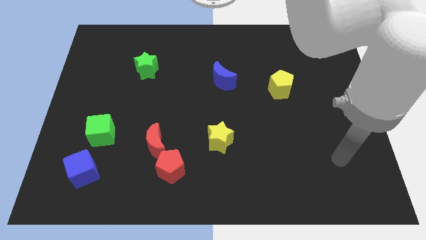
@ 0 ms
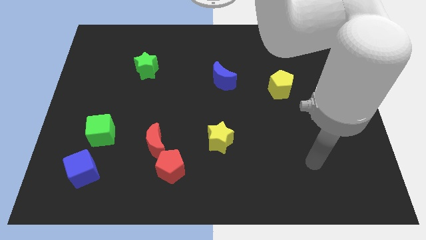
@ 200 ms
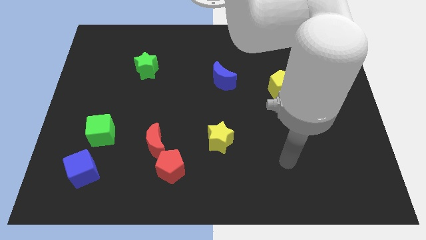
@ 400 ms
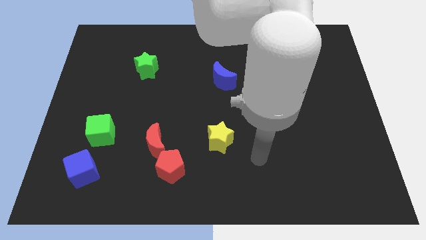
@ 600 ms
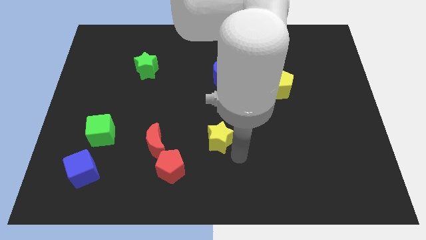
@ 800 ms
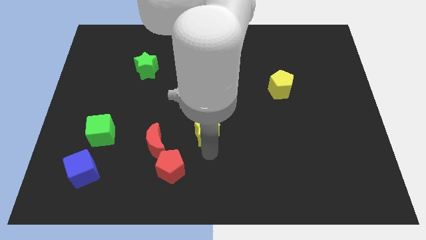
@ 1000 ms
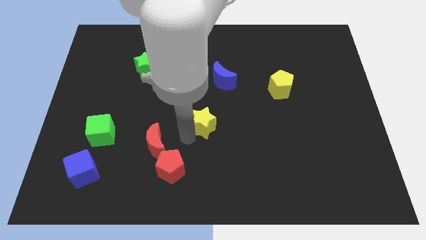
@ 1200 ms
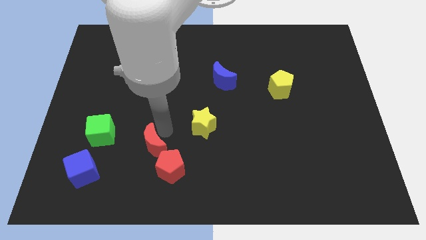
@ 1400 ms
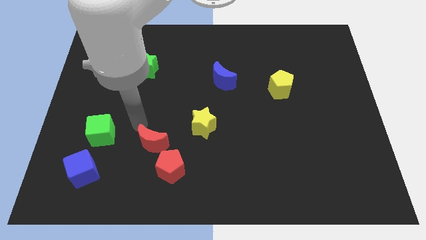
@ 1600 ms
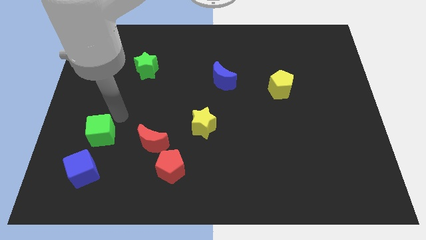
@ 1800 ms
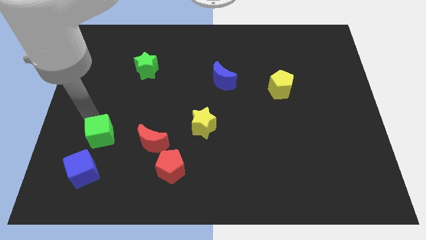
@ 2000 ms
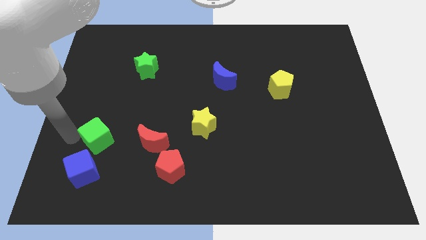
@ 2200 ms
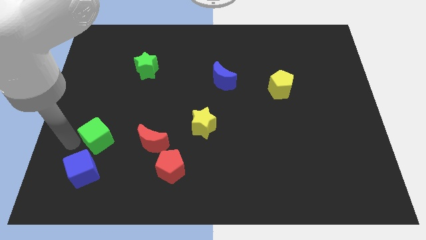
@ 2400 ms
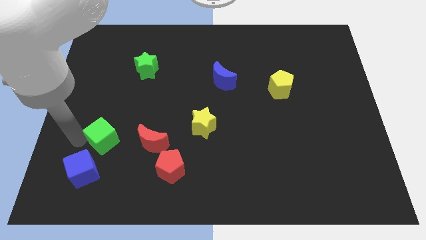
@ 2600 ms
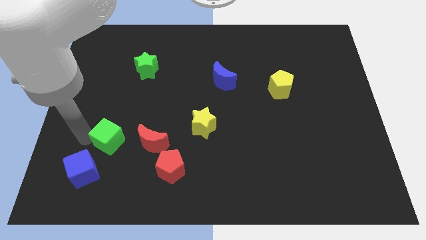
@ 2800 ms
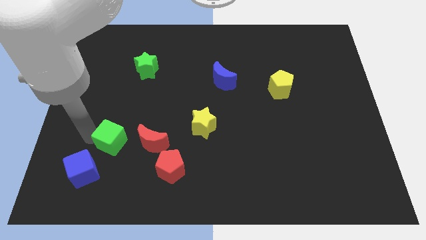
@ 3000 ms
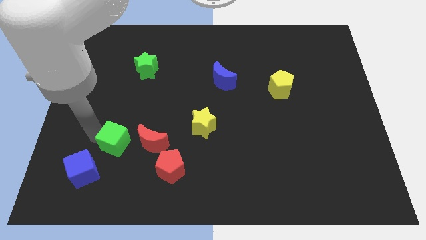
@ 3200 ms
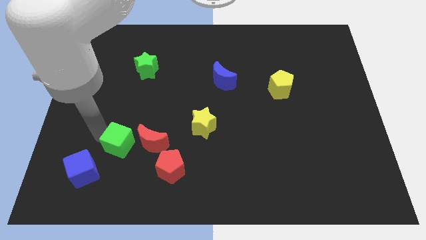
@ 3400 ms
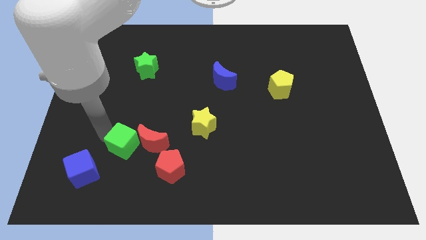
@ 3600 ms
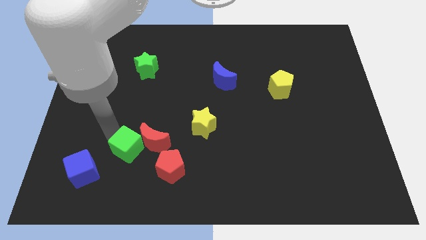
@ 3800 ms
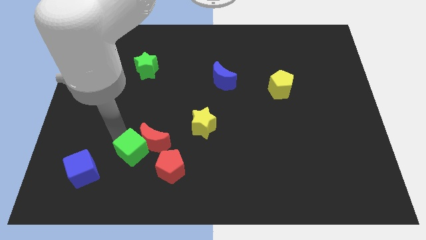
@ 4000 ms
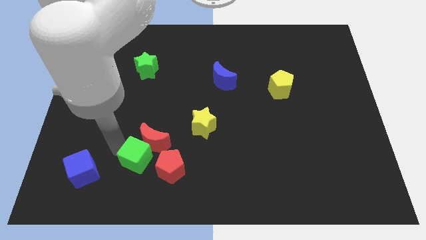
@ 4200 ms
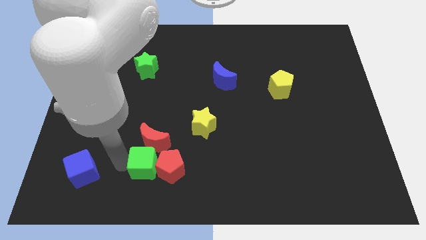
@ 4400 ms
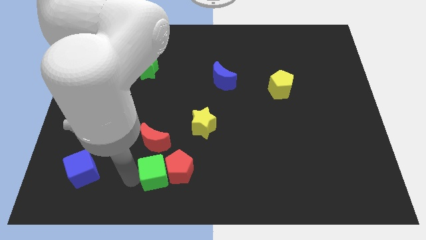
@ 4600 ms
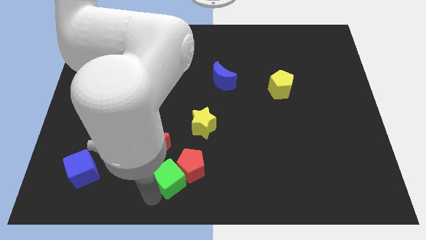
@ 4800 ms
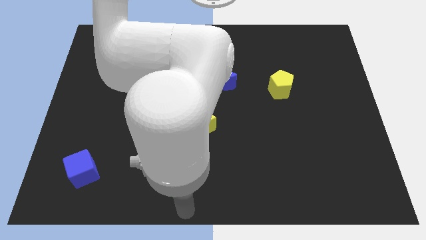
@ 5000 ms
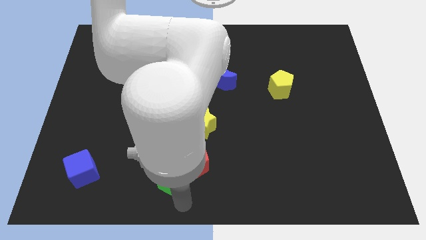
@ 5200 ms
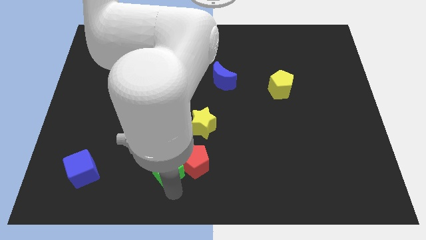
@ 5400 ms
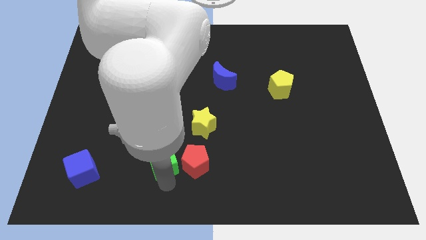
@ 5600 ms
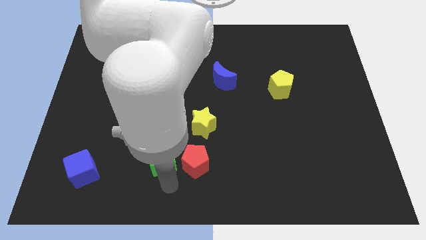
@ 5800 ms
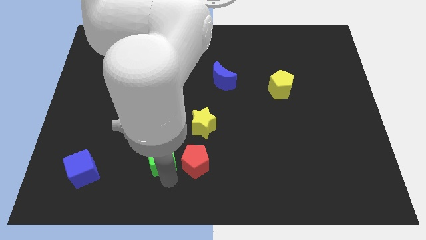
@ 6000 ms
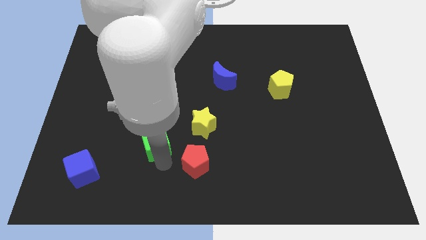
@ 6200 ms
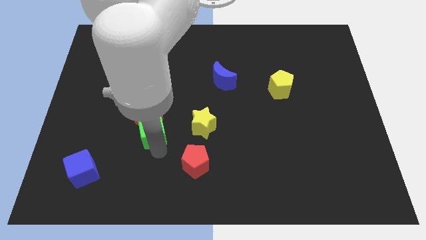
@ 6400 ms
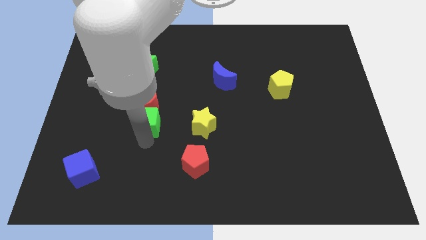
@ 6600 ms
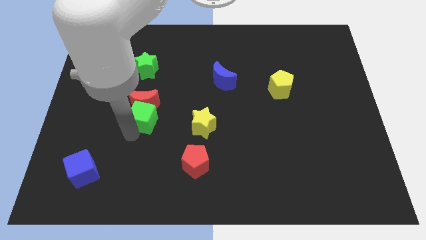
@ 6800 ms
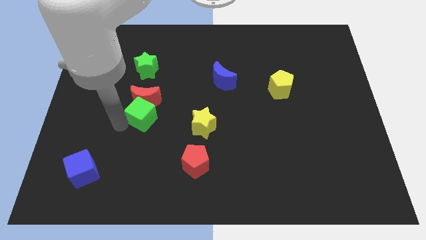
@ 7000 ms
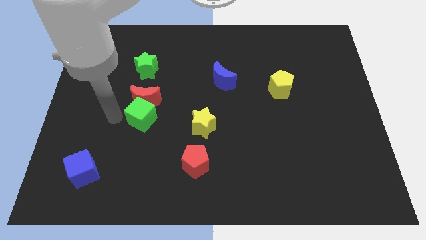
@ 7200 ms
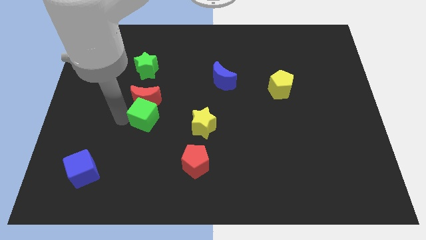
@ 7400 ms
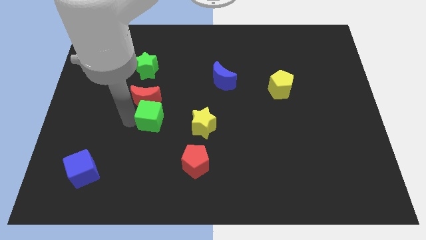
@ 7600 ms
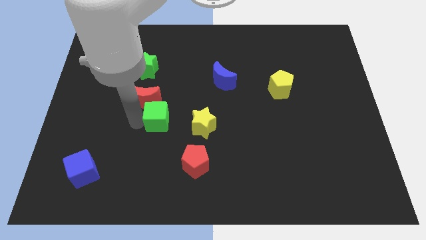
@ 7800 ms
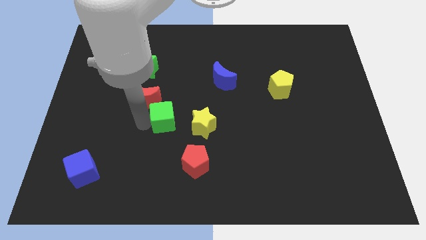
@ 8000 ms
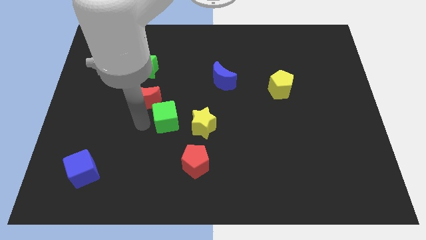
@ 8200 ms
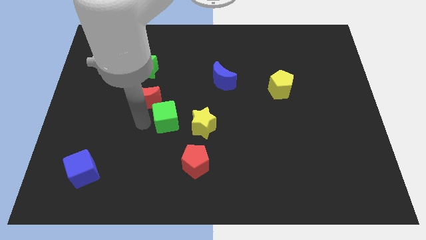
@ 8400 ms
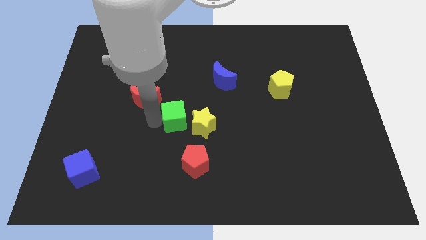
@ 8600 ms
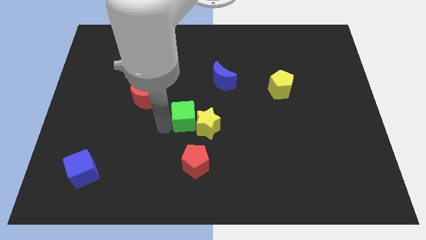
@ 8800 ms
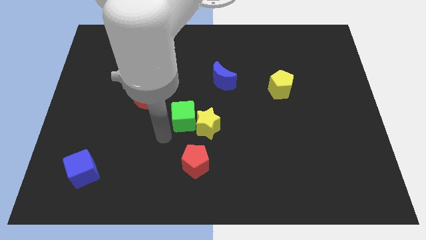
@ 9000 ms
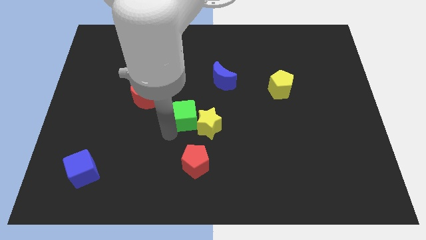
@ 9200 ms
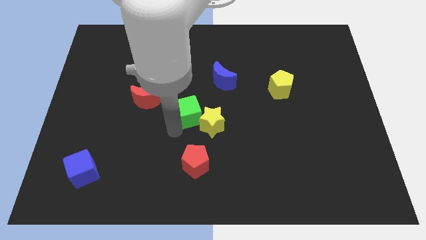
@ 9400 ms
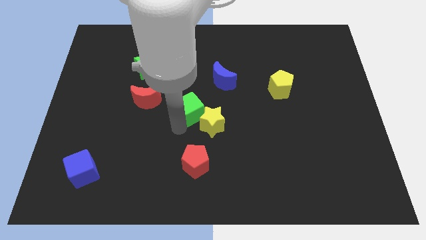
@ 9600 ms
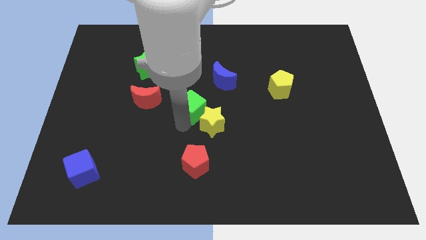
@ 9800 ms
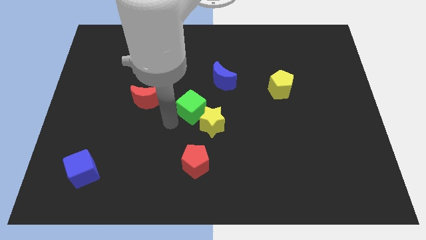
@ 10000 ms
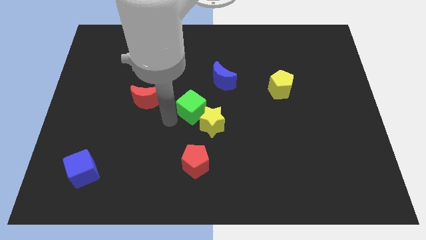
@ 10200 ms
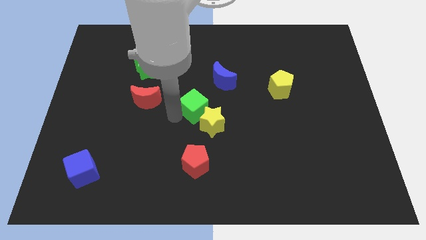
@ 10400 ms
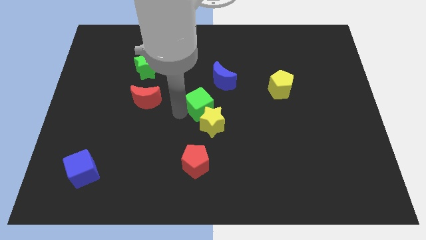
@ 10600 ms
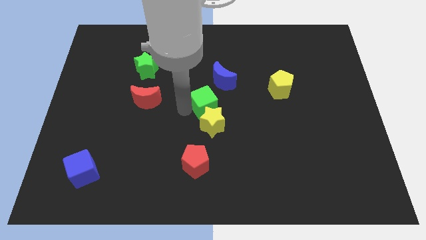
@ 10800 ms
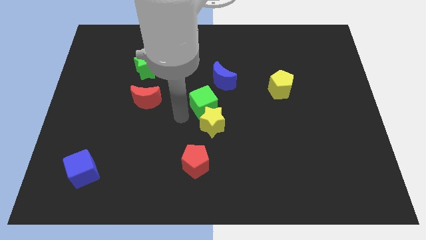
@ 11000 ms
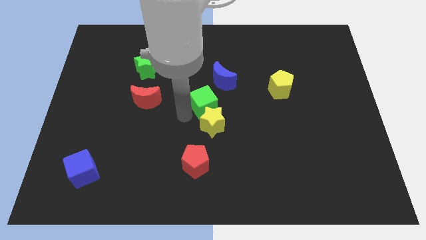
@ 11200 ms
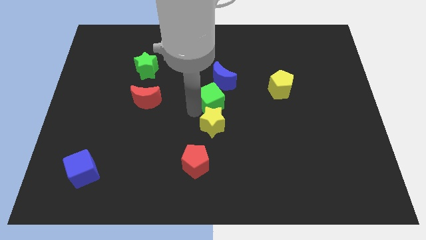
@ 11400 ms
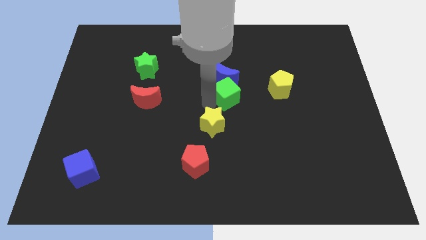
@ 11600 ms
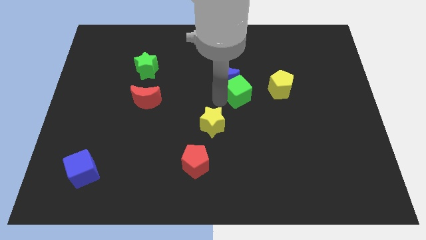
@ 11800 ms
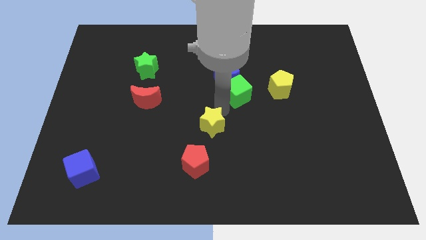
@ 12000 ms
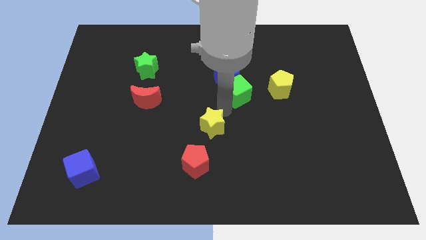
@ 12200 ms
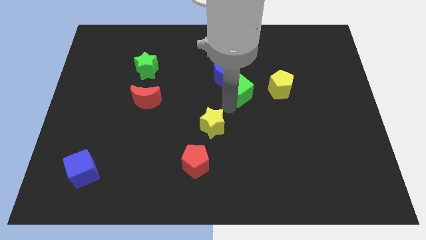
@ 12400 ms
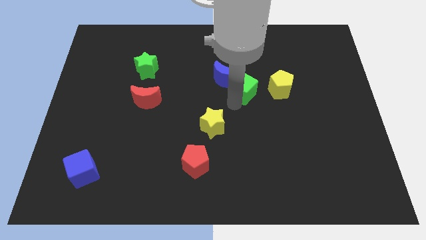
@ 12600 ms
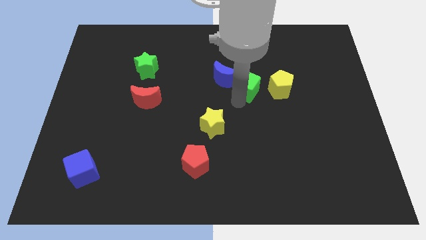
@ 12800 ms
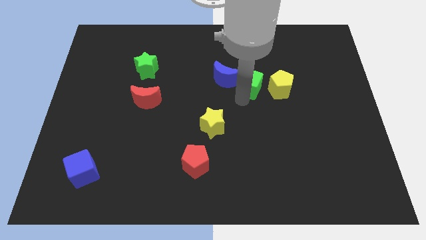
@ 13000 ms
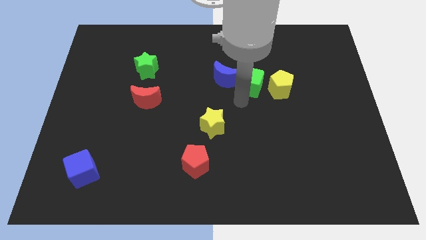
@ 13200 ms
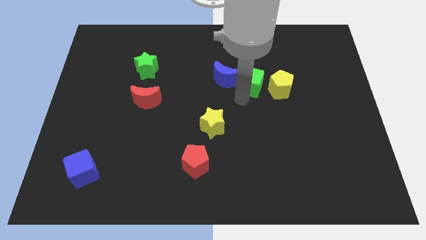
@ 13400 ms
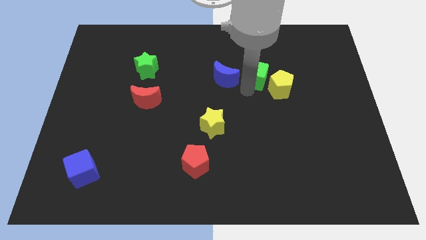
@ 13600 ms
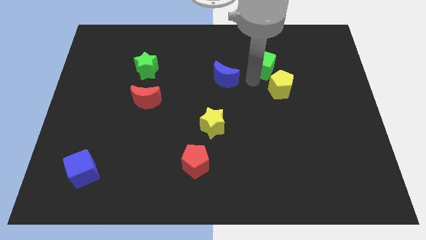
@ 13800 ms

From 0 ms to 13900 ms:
slide the green cube to the top of the yellow pentagon

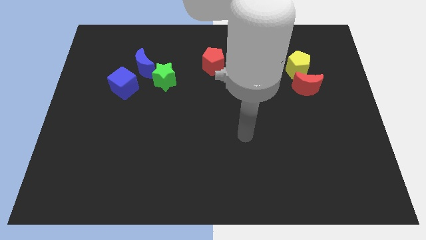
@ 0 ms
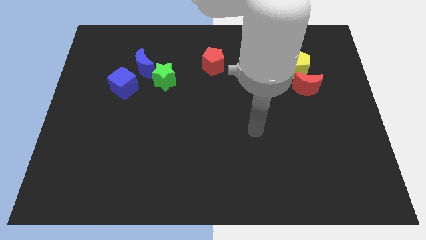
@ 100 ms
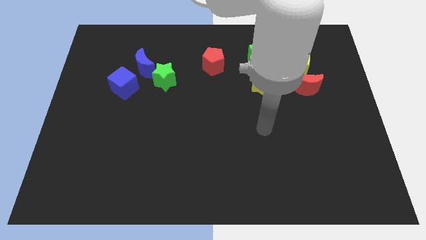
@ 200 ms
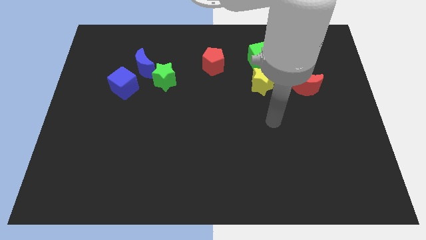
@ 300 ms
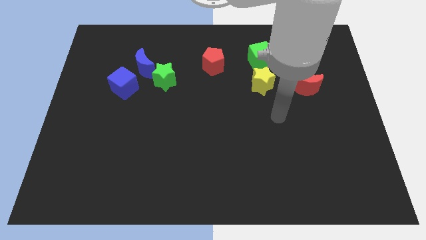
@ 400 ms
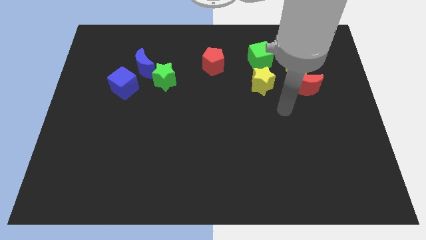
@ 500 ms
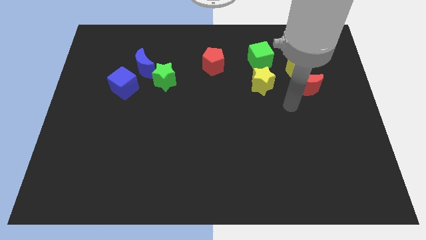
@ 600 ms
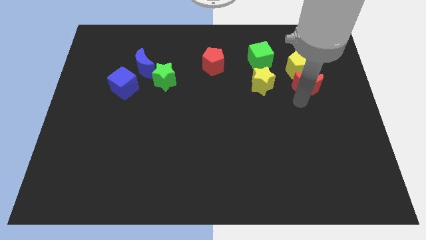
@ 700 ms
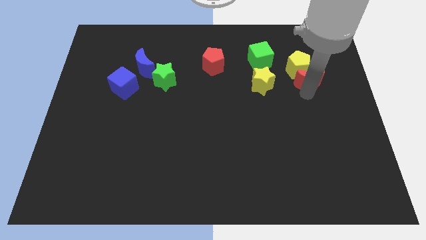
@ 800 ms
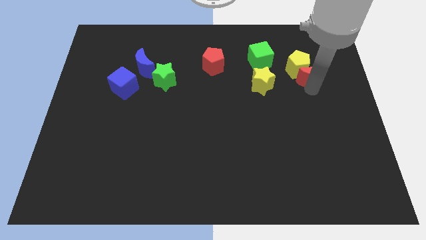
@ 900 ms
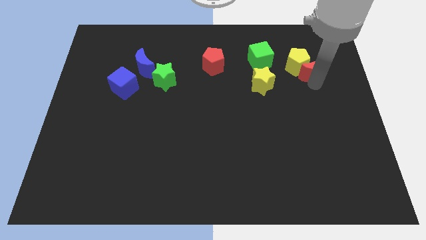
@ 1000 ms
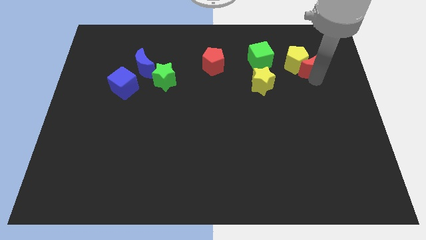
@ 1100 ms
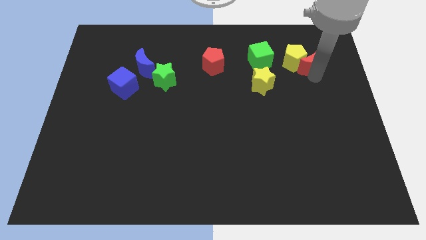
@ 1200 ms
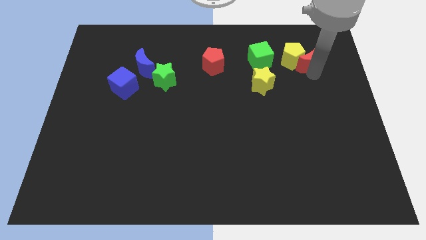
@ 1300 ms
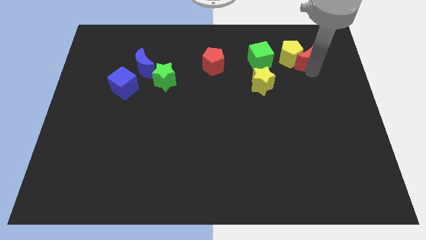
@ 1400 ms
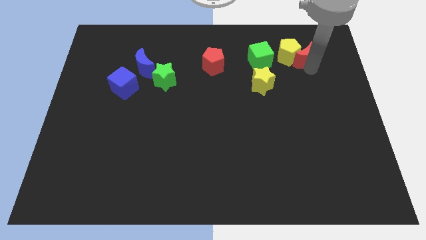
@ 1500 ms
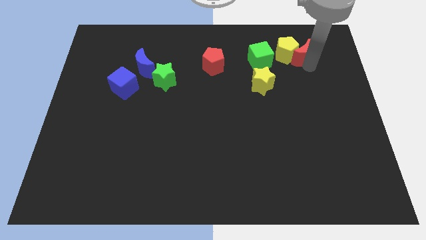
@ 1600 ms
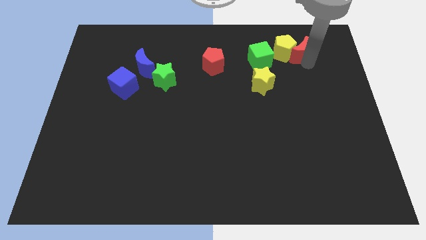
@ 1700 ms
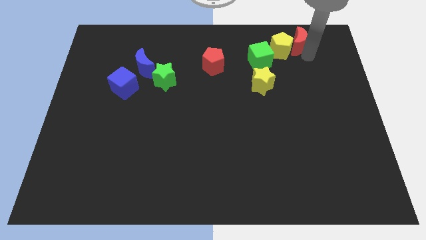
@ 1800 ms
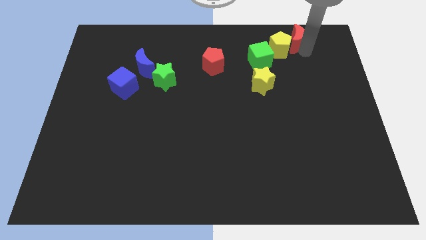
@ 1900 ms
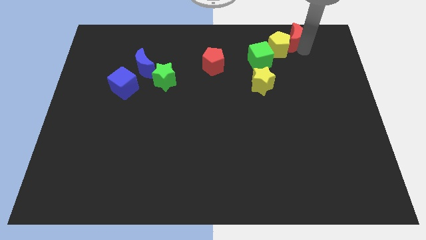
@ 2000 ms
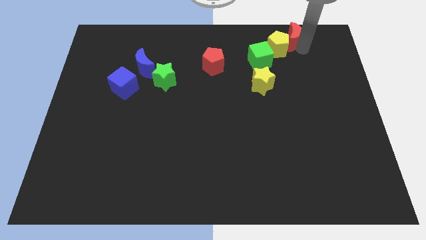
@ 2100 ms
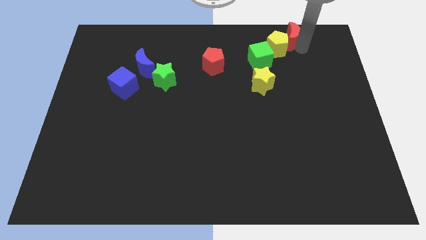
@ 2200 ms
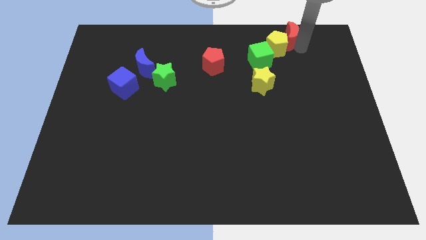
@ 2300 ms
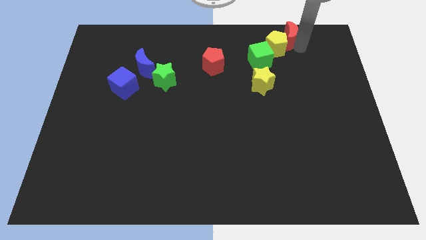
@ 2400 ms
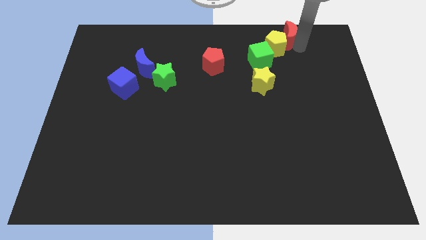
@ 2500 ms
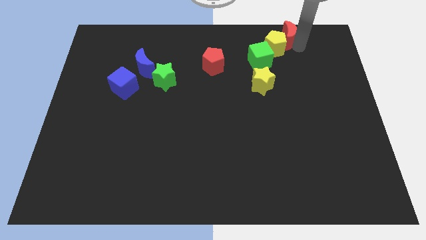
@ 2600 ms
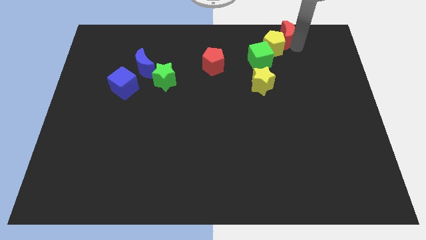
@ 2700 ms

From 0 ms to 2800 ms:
slide the yellow pentagon to the top side of the yellow star
